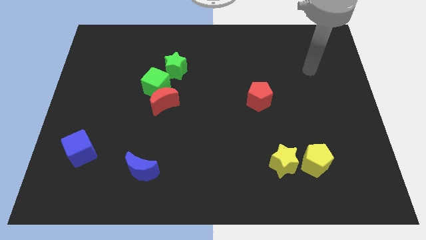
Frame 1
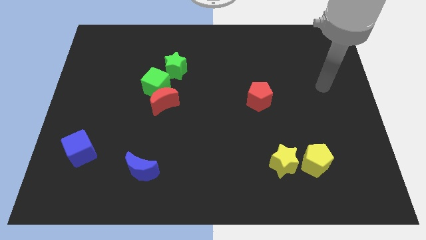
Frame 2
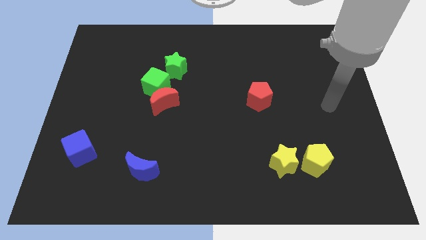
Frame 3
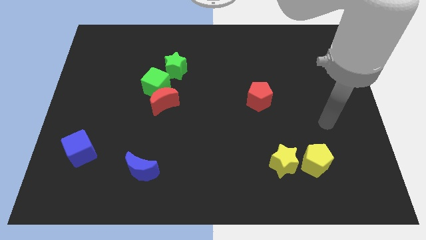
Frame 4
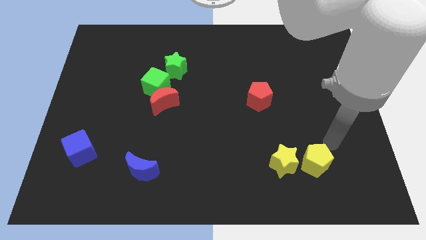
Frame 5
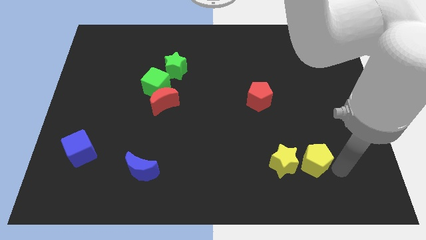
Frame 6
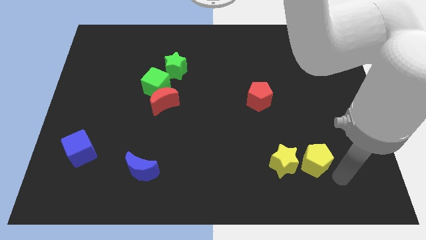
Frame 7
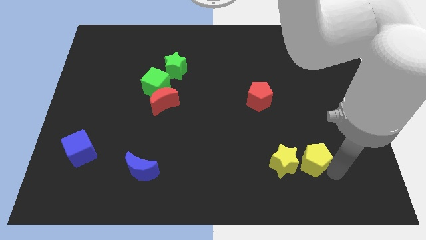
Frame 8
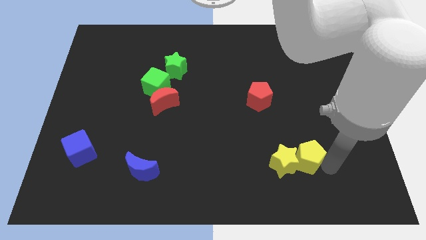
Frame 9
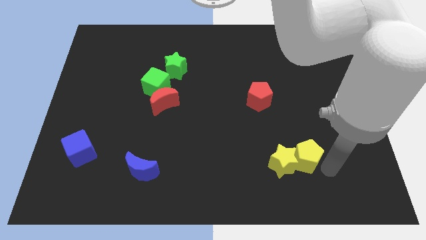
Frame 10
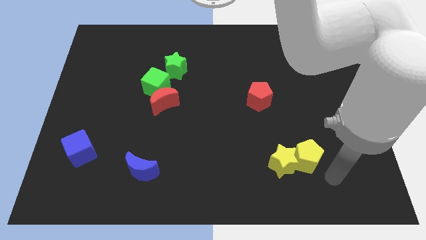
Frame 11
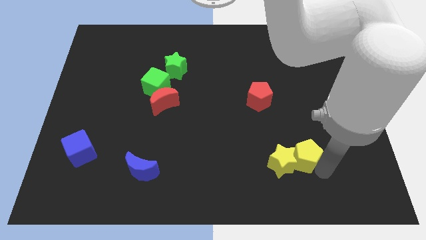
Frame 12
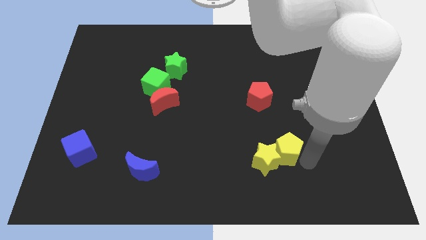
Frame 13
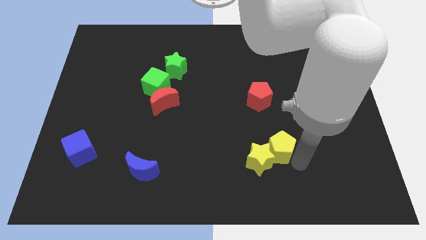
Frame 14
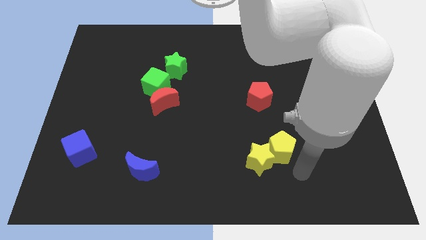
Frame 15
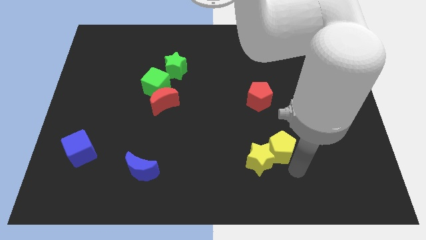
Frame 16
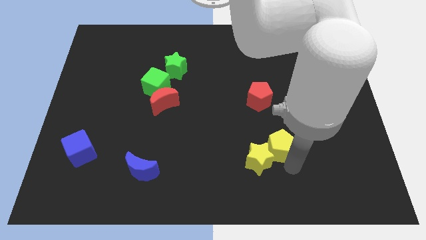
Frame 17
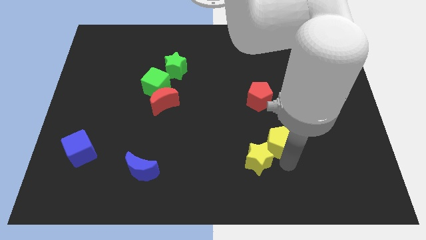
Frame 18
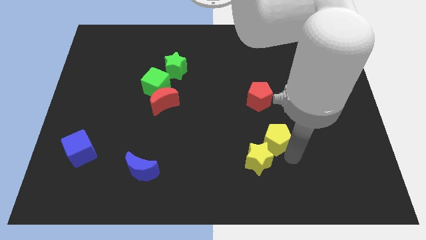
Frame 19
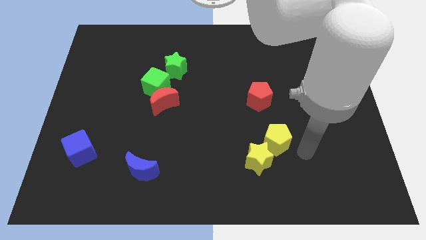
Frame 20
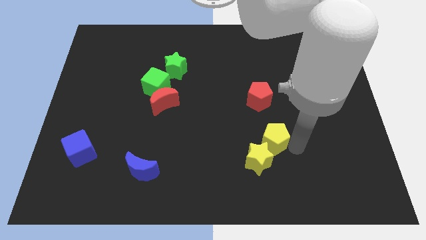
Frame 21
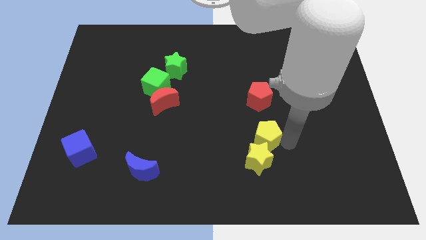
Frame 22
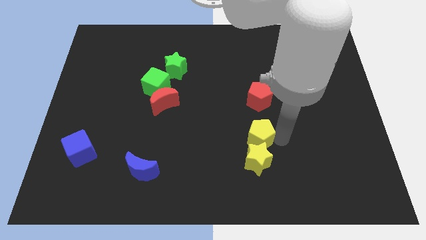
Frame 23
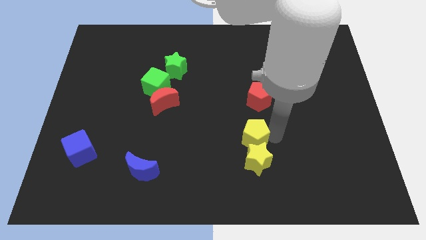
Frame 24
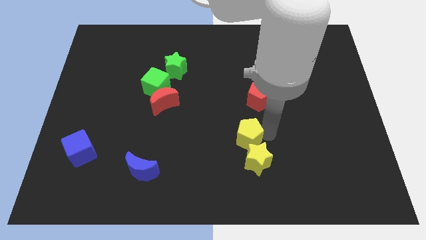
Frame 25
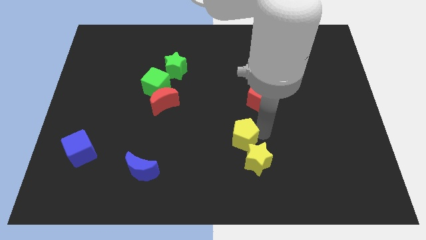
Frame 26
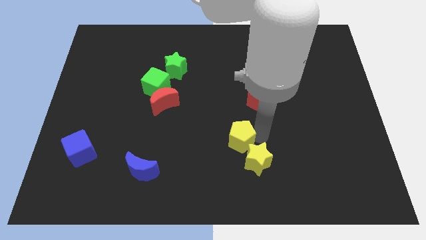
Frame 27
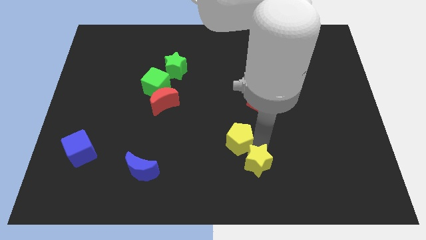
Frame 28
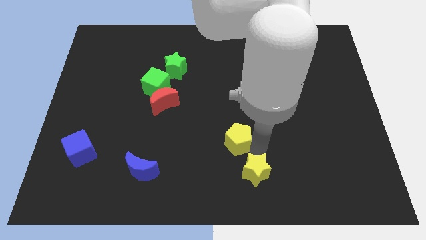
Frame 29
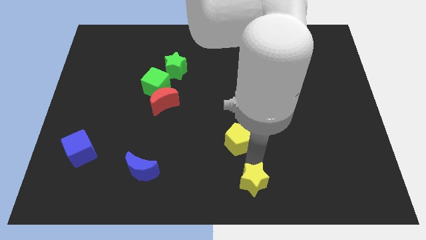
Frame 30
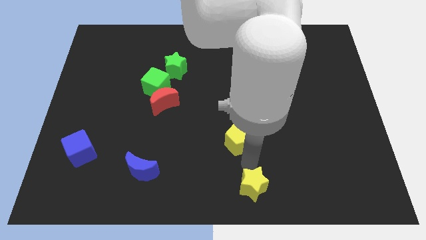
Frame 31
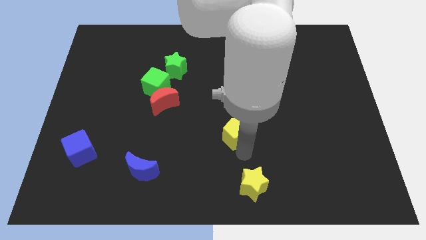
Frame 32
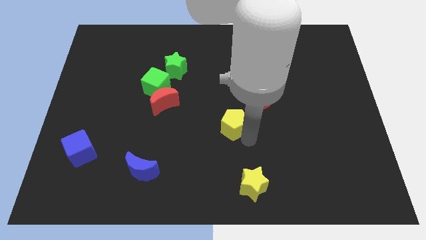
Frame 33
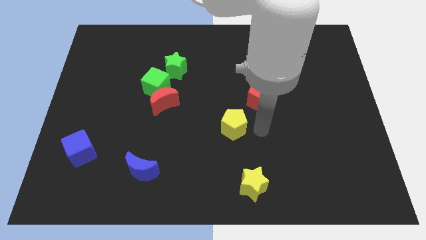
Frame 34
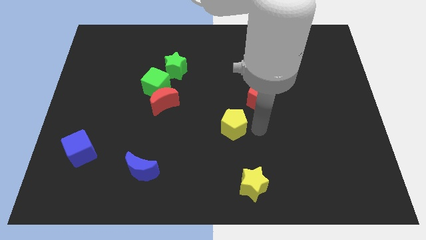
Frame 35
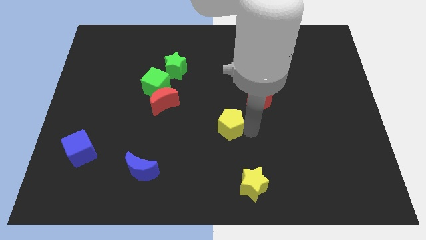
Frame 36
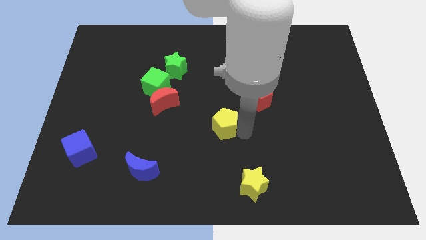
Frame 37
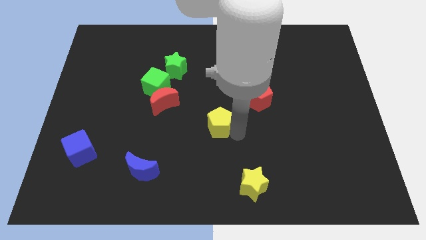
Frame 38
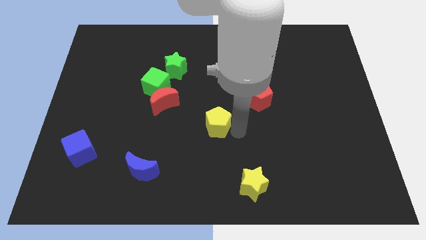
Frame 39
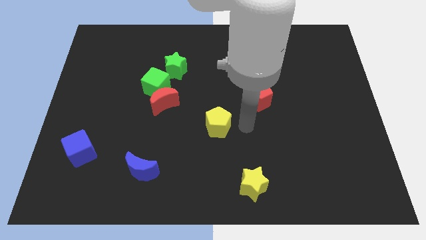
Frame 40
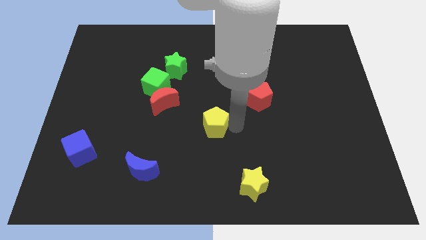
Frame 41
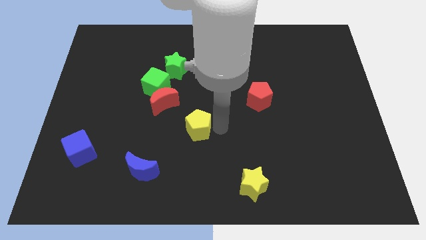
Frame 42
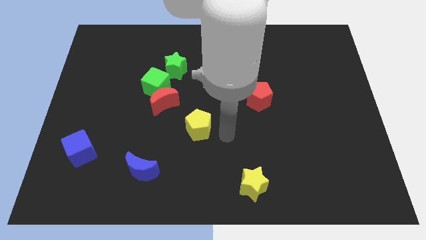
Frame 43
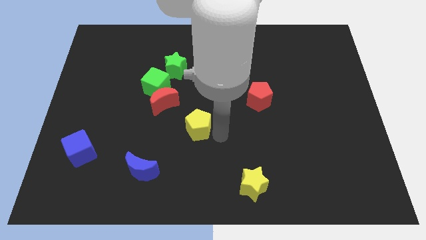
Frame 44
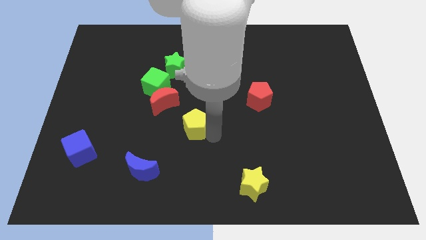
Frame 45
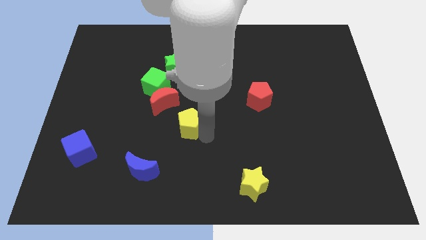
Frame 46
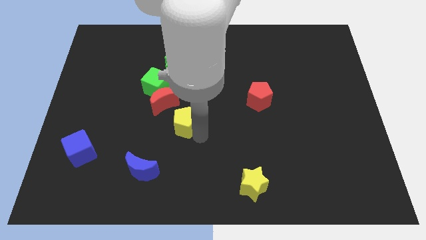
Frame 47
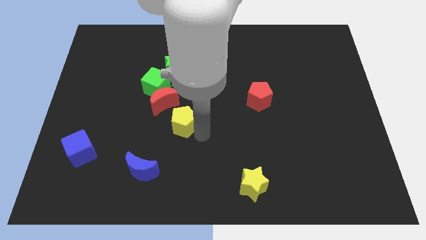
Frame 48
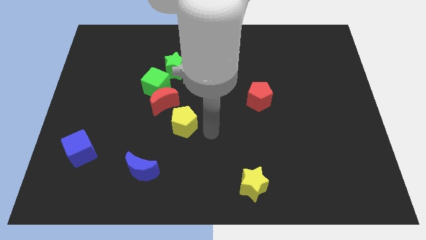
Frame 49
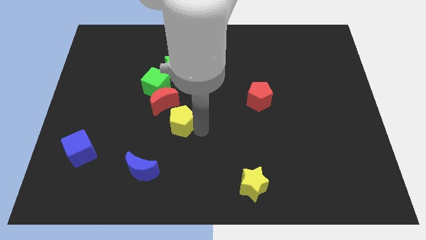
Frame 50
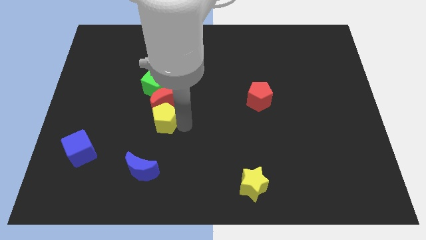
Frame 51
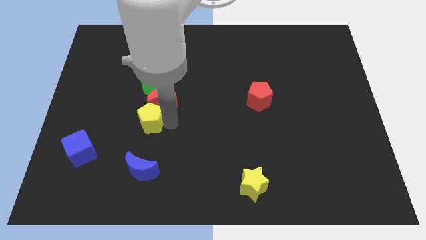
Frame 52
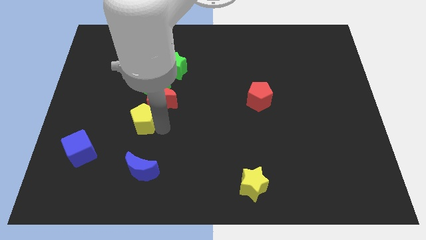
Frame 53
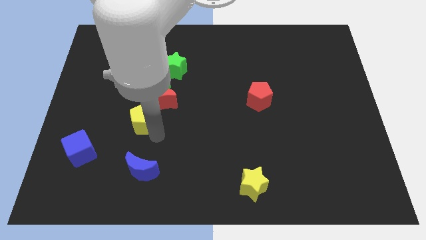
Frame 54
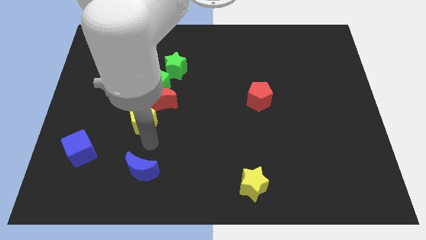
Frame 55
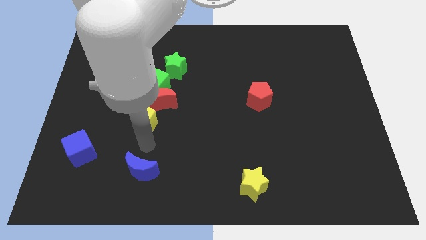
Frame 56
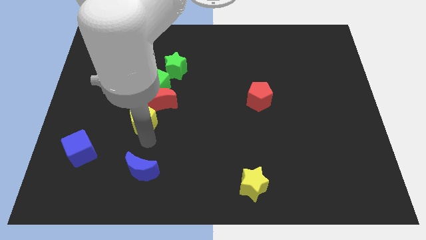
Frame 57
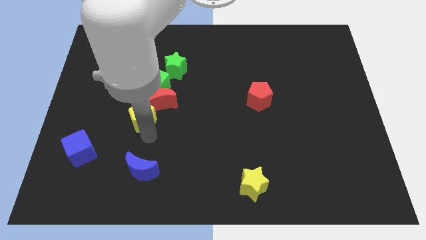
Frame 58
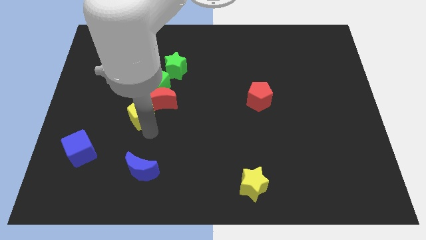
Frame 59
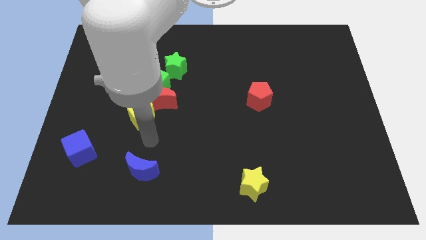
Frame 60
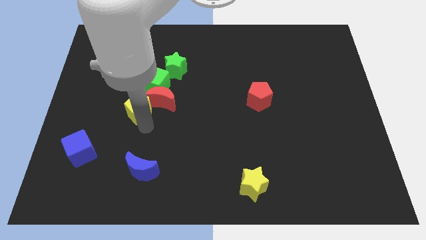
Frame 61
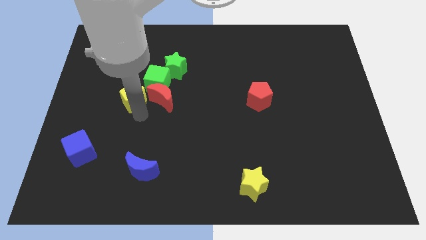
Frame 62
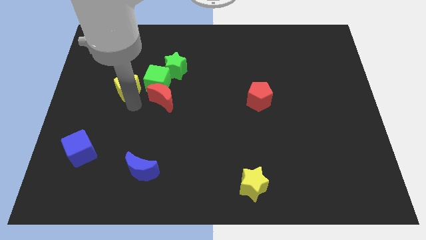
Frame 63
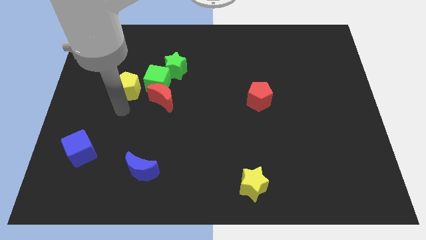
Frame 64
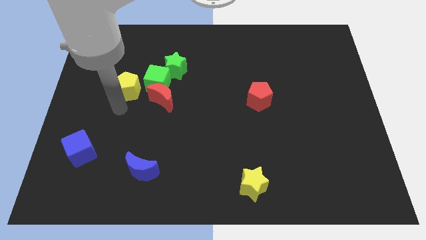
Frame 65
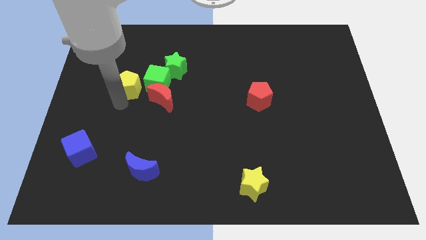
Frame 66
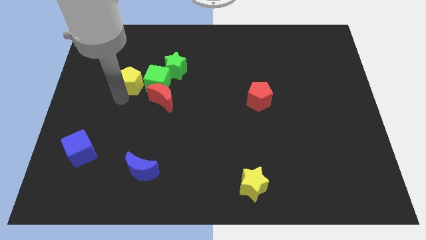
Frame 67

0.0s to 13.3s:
push the yellow pentagon to the top left side of the green cube

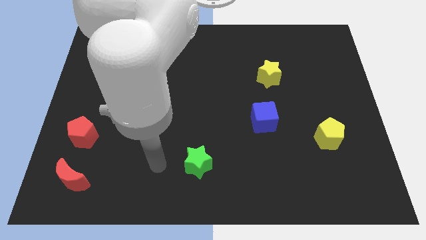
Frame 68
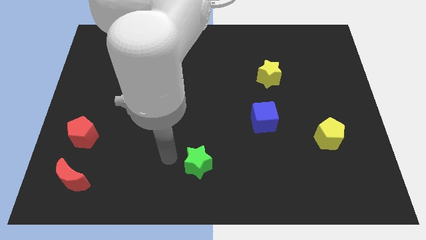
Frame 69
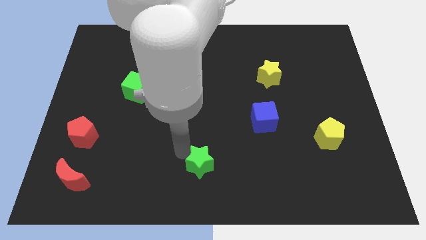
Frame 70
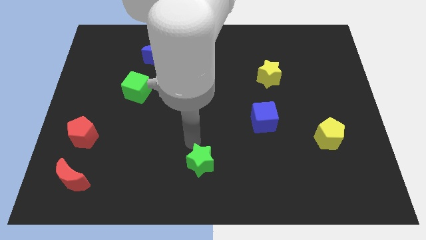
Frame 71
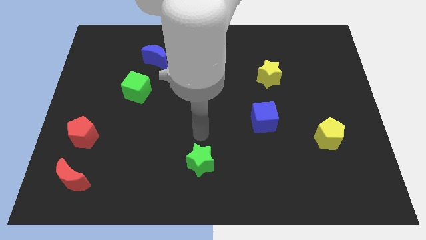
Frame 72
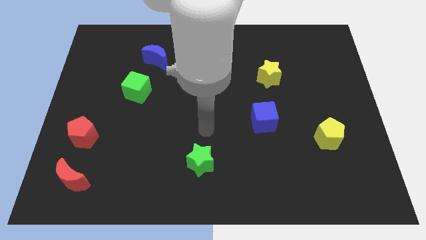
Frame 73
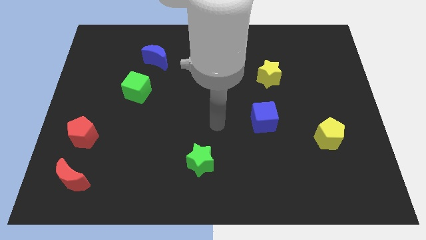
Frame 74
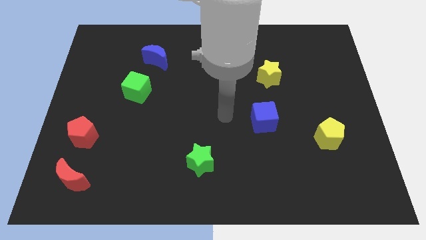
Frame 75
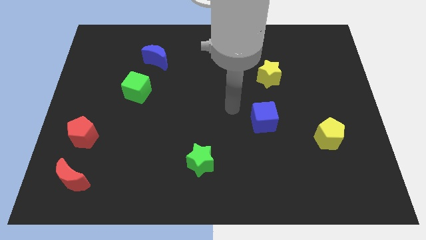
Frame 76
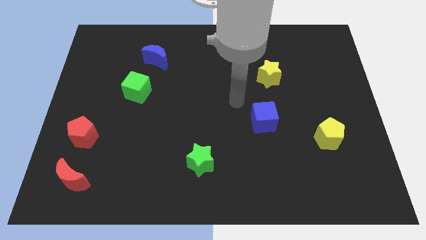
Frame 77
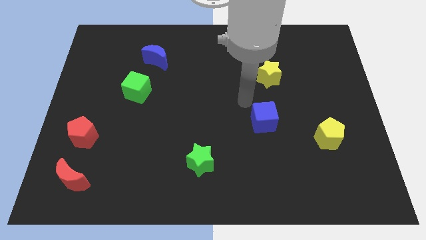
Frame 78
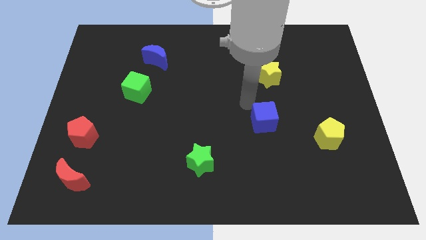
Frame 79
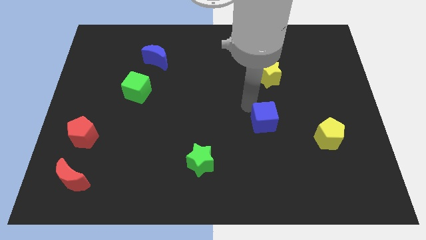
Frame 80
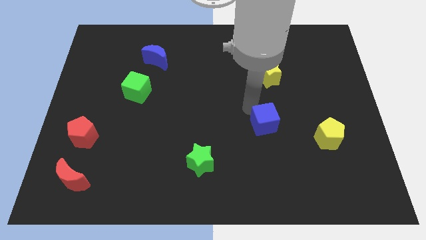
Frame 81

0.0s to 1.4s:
slide the blue cube to the left side of the yellow pentagon
